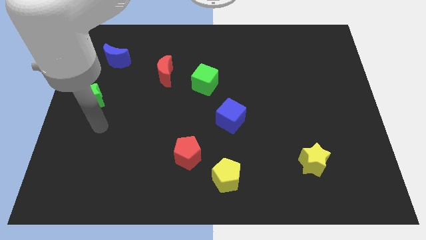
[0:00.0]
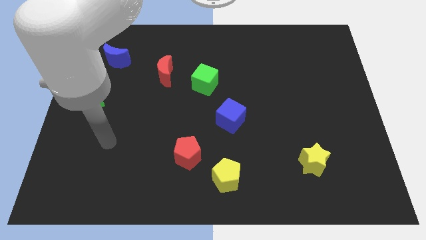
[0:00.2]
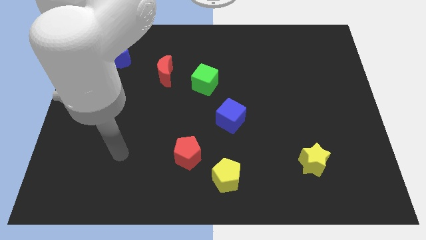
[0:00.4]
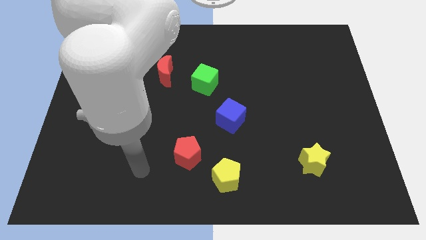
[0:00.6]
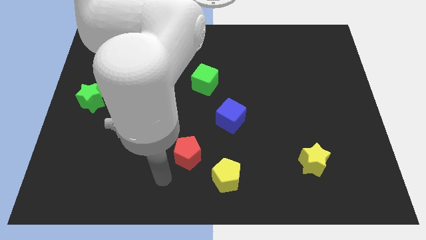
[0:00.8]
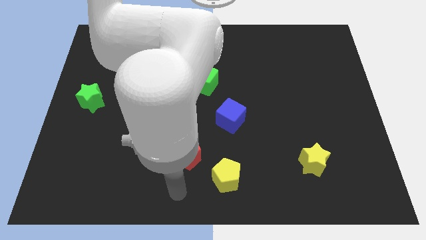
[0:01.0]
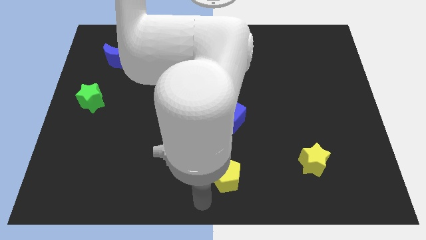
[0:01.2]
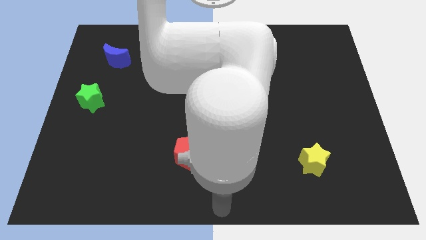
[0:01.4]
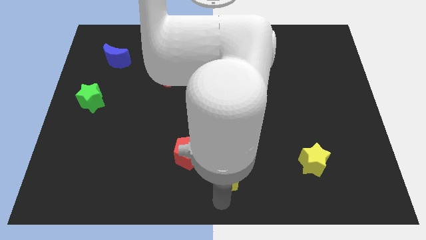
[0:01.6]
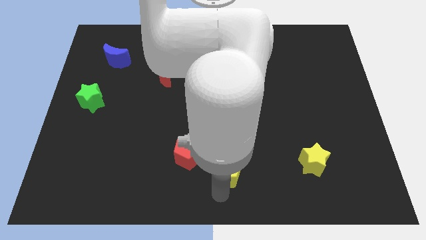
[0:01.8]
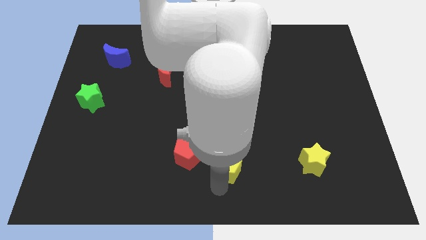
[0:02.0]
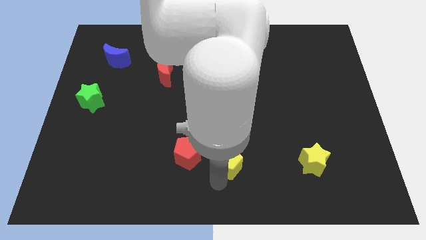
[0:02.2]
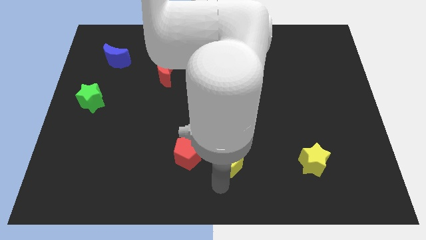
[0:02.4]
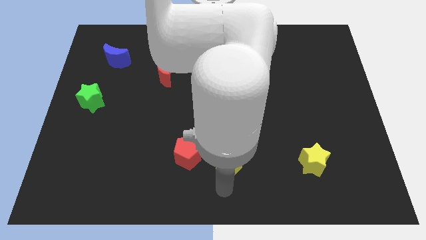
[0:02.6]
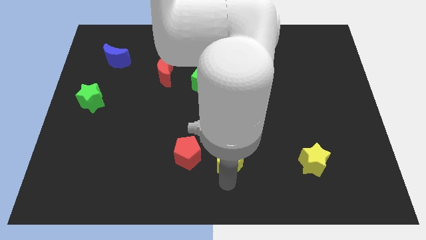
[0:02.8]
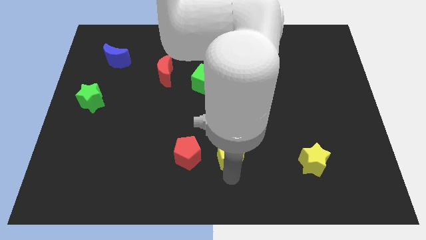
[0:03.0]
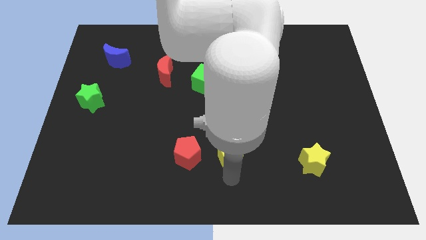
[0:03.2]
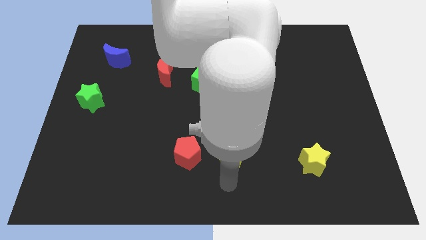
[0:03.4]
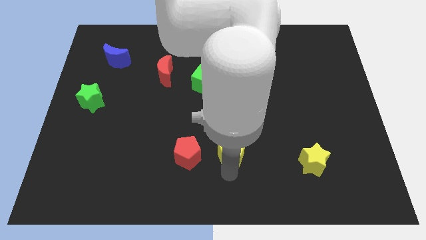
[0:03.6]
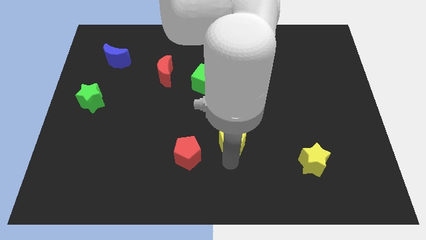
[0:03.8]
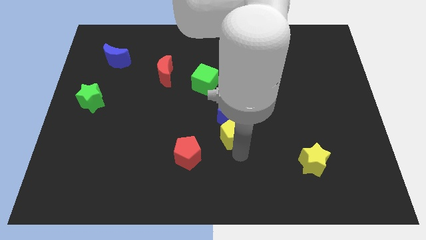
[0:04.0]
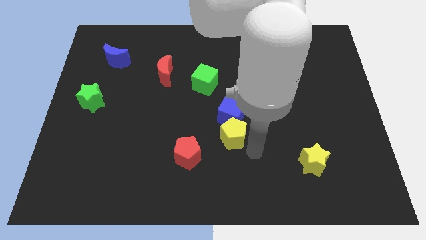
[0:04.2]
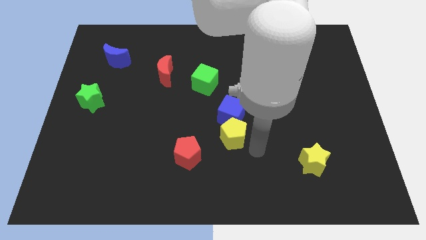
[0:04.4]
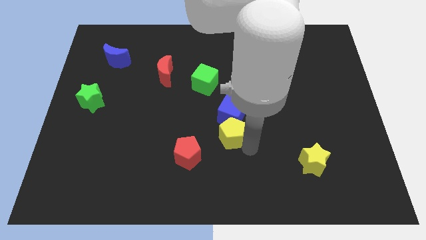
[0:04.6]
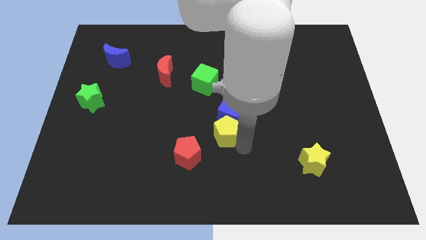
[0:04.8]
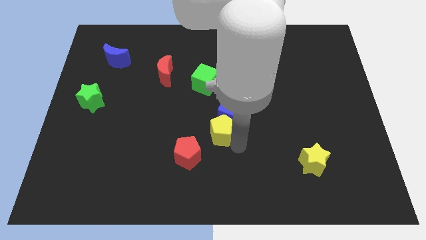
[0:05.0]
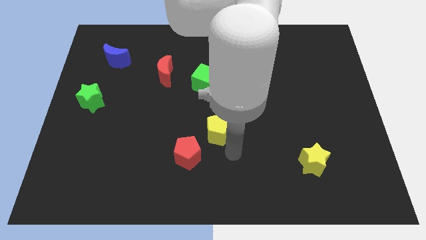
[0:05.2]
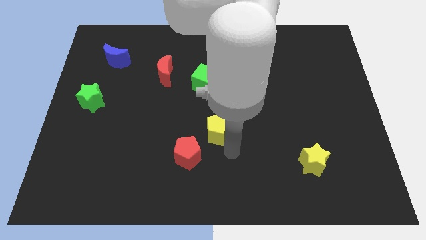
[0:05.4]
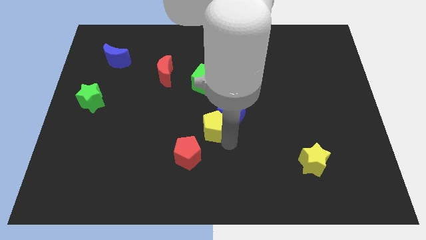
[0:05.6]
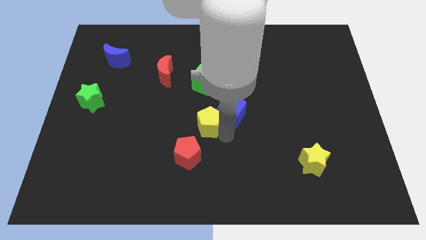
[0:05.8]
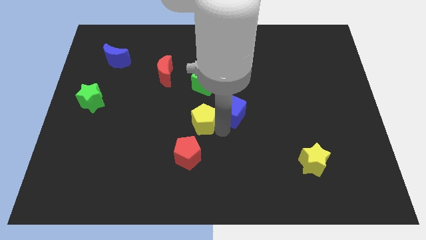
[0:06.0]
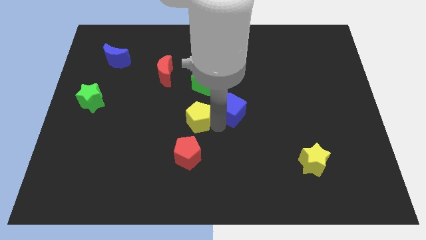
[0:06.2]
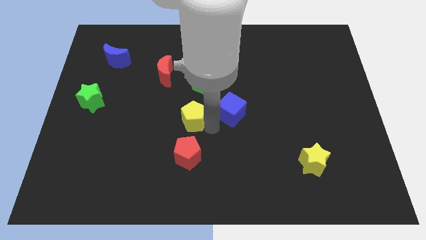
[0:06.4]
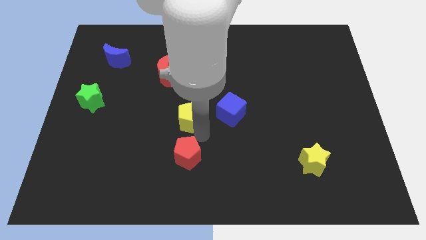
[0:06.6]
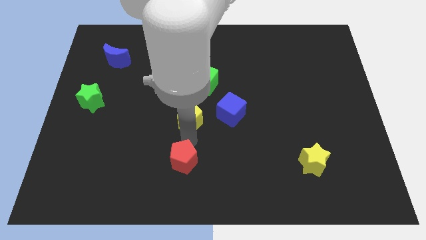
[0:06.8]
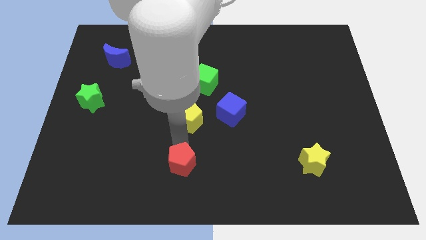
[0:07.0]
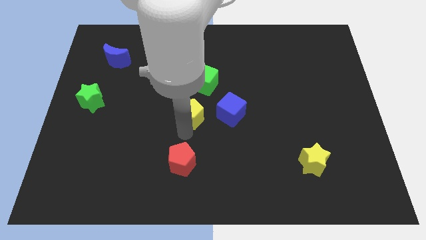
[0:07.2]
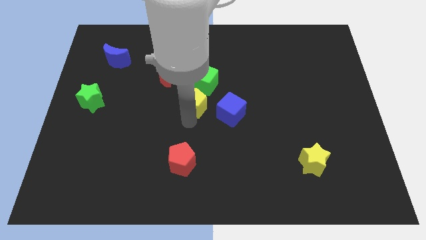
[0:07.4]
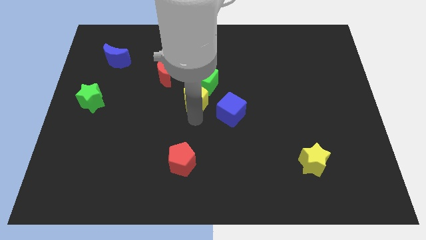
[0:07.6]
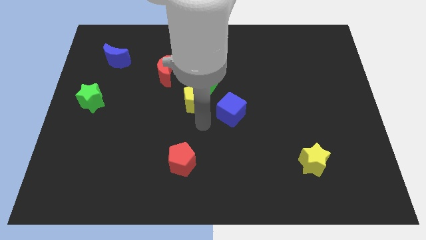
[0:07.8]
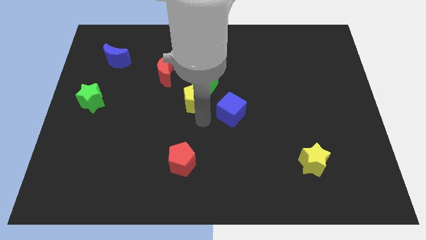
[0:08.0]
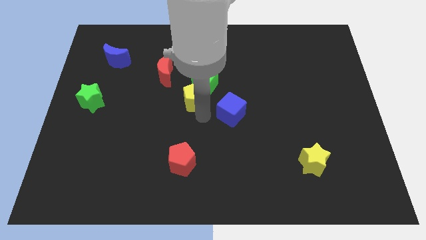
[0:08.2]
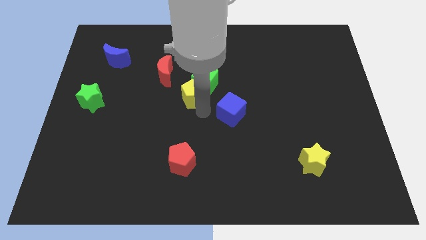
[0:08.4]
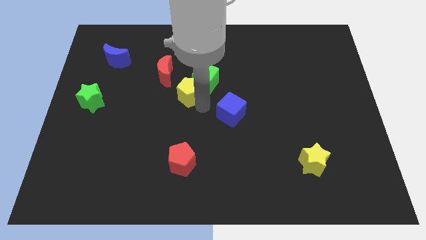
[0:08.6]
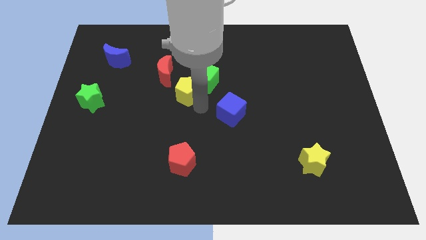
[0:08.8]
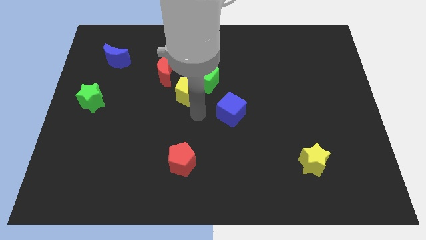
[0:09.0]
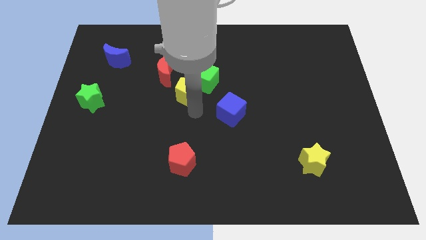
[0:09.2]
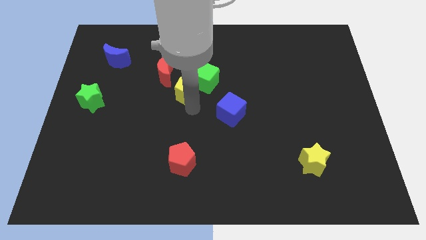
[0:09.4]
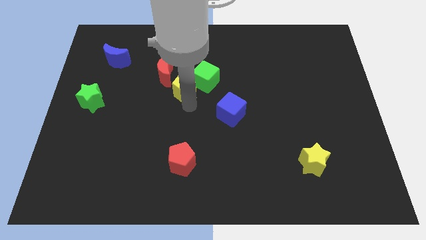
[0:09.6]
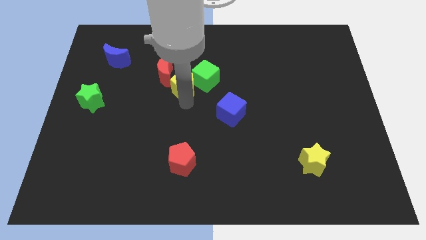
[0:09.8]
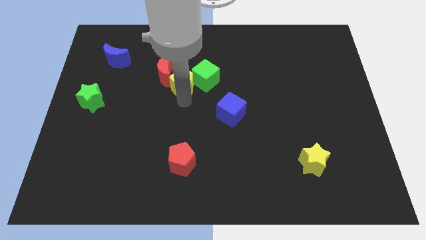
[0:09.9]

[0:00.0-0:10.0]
move the yellow pentagon next to the red moon

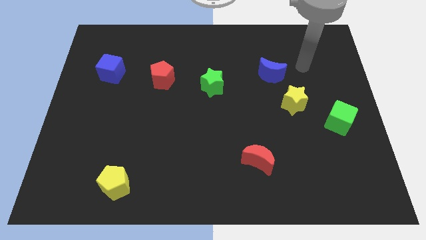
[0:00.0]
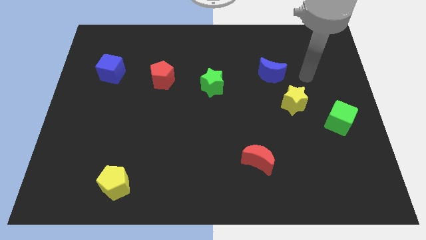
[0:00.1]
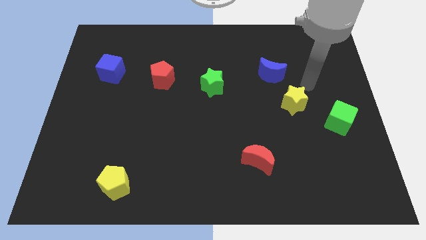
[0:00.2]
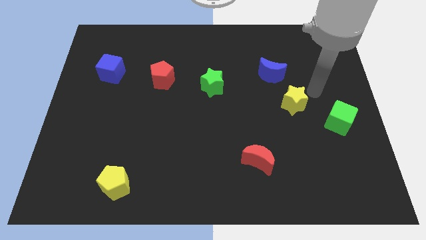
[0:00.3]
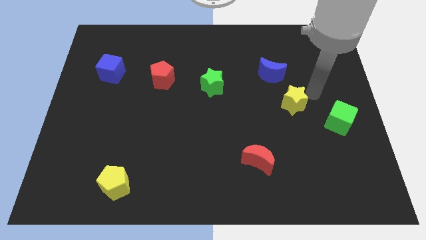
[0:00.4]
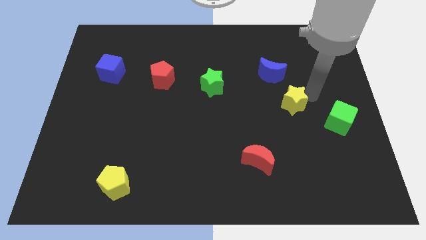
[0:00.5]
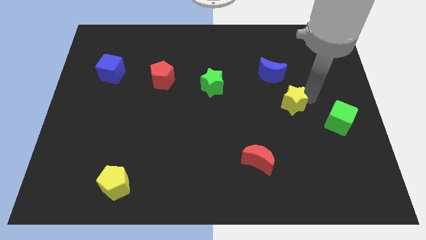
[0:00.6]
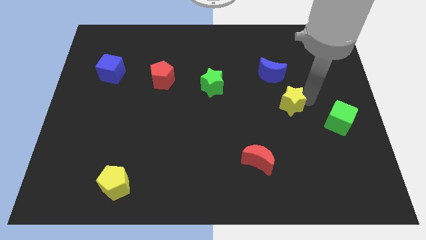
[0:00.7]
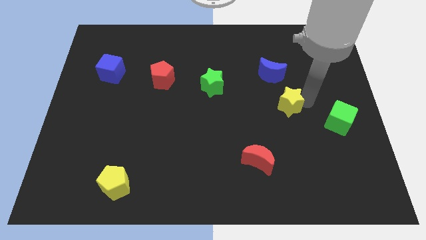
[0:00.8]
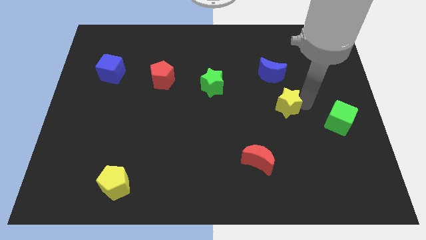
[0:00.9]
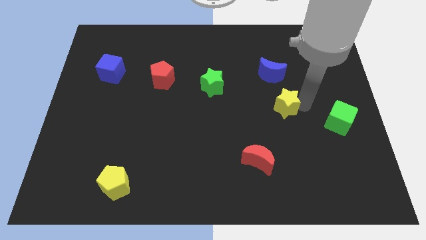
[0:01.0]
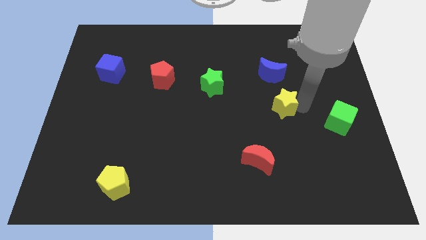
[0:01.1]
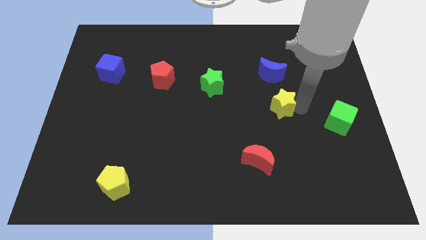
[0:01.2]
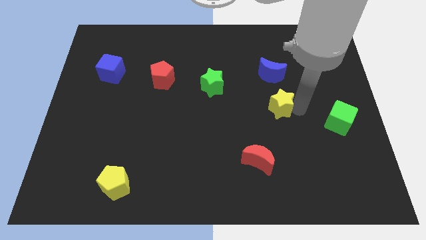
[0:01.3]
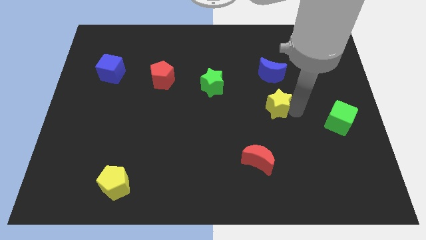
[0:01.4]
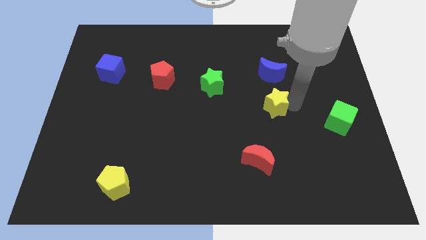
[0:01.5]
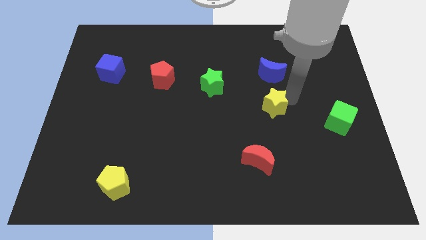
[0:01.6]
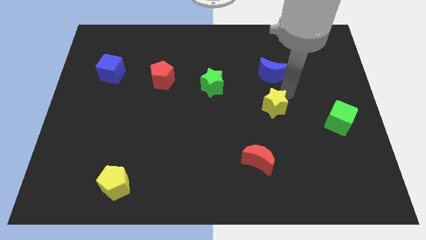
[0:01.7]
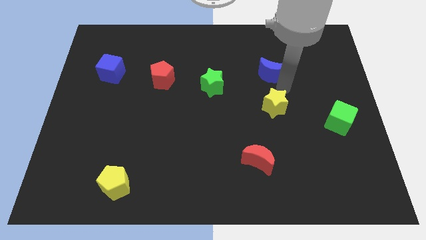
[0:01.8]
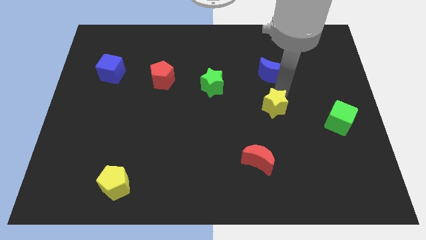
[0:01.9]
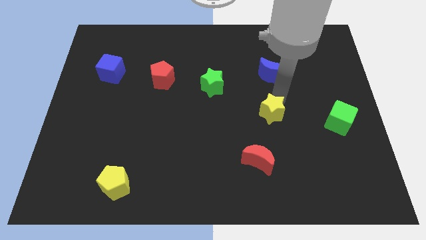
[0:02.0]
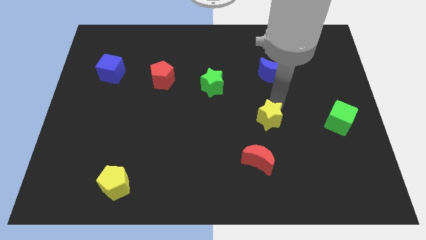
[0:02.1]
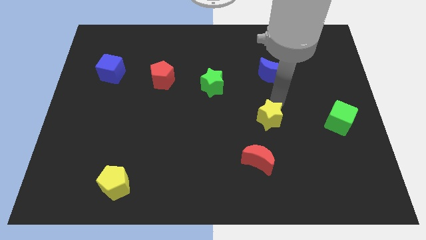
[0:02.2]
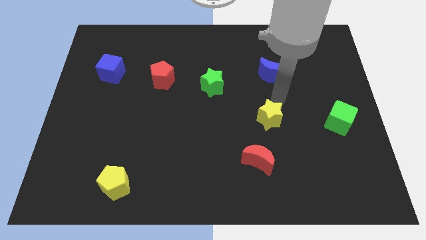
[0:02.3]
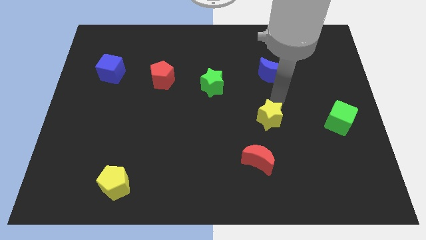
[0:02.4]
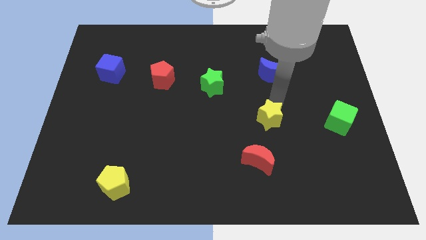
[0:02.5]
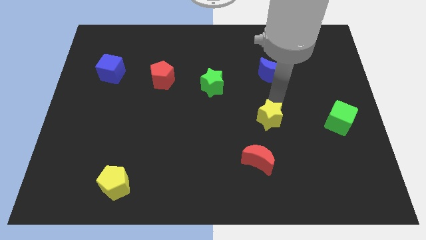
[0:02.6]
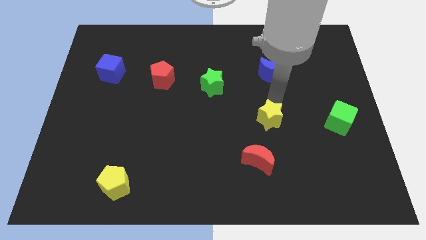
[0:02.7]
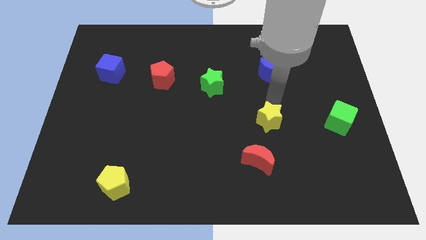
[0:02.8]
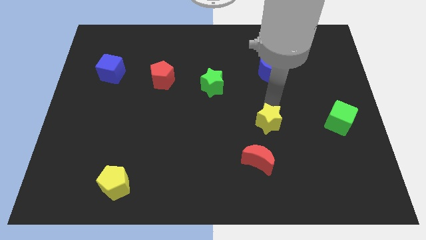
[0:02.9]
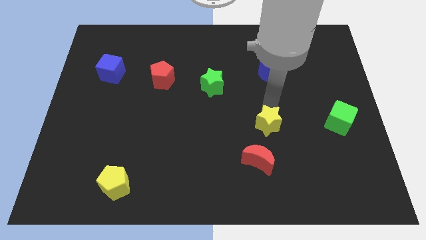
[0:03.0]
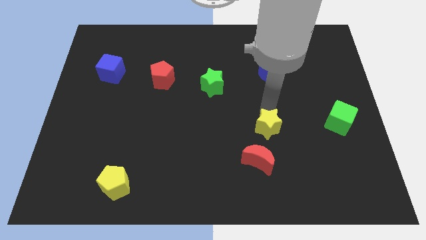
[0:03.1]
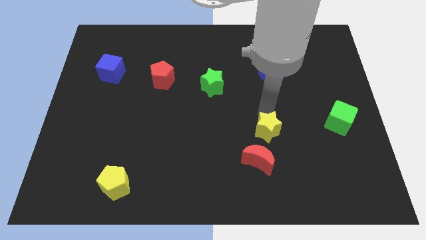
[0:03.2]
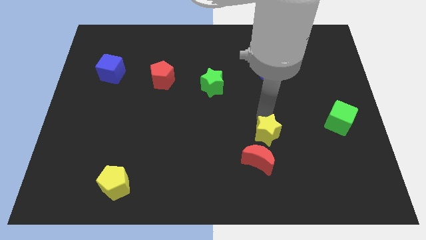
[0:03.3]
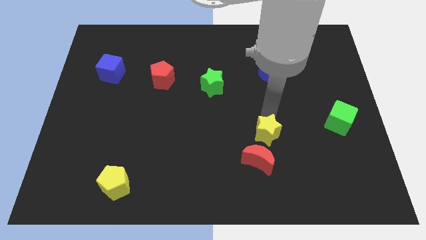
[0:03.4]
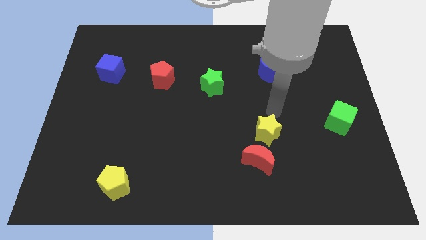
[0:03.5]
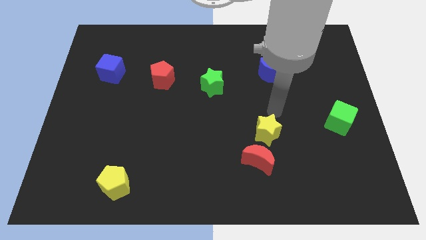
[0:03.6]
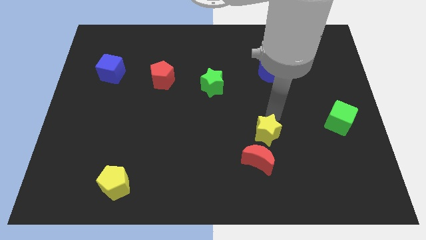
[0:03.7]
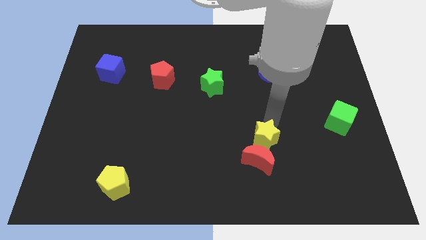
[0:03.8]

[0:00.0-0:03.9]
move the yellow star to the red moon
